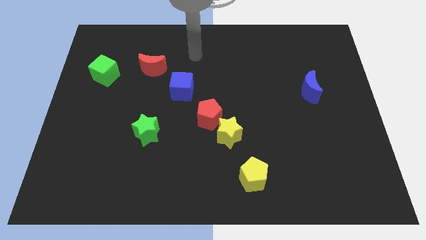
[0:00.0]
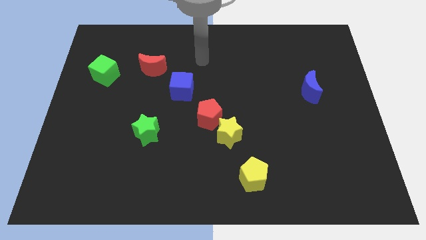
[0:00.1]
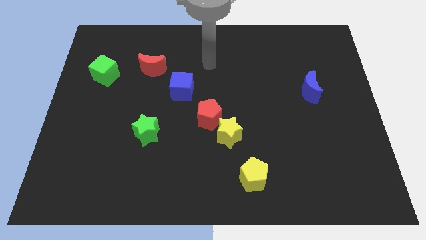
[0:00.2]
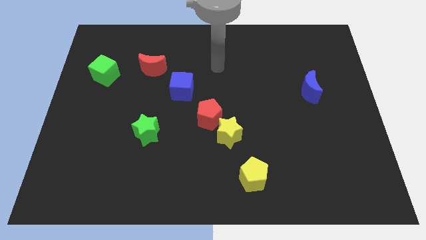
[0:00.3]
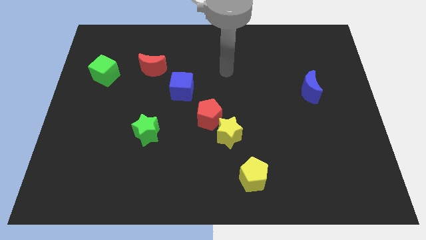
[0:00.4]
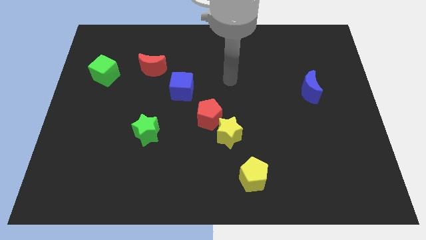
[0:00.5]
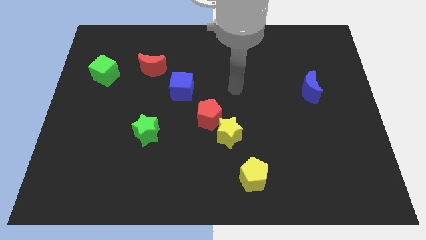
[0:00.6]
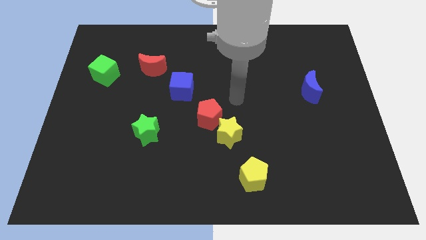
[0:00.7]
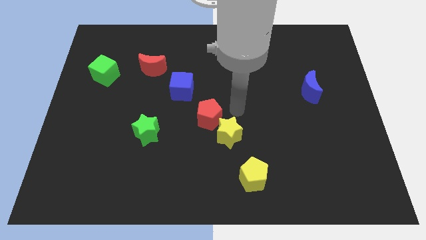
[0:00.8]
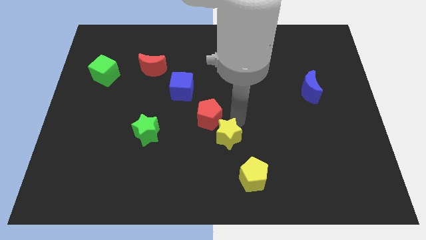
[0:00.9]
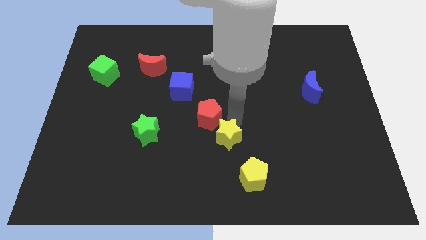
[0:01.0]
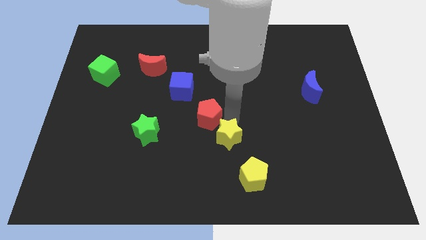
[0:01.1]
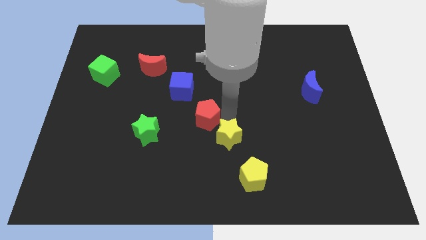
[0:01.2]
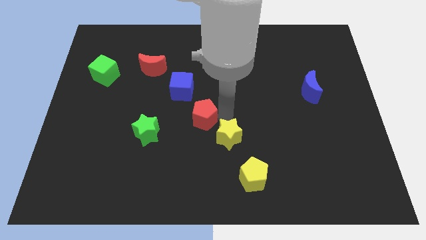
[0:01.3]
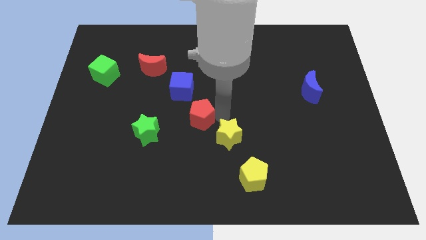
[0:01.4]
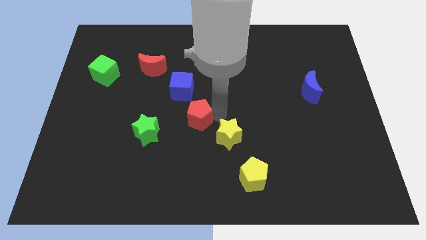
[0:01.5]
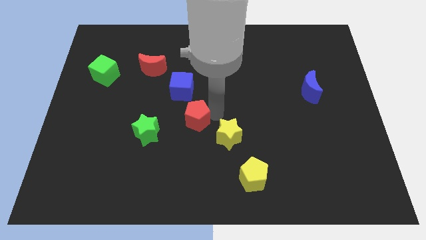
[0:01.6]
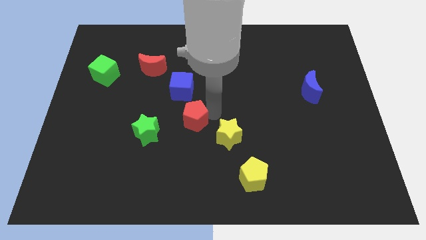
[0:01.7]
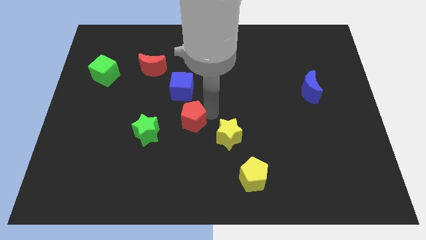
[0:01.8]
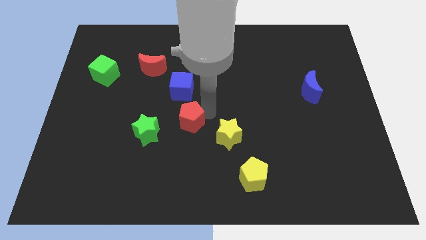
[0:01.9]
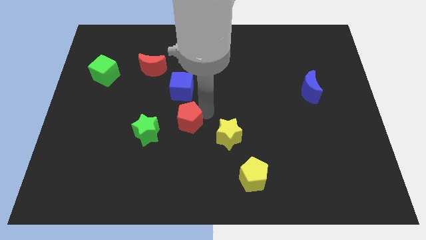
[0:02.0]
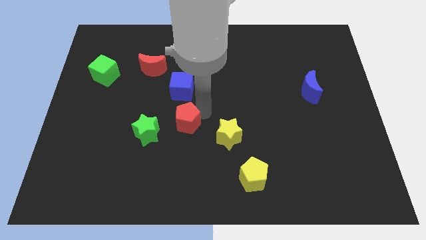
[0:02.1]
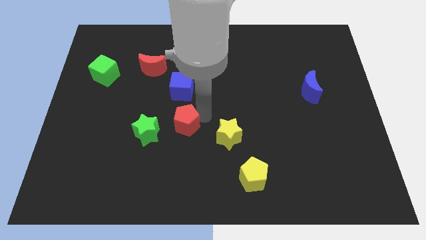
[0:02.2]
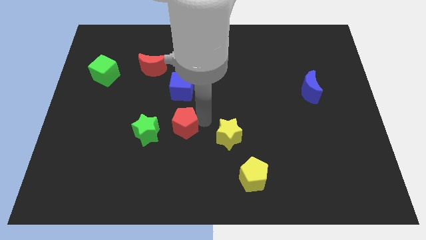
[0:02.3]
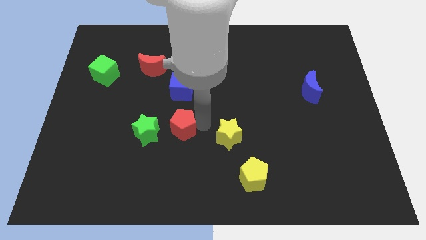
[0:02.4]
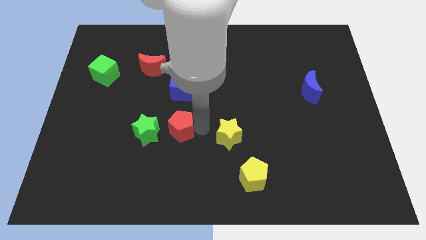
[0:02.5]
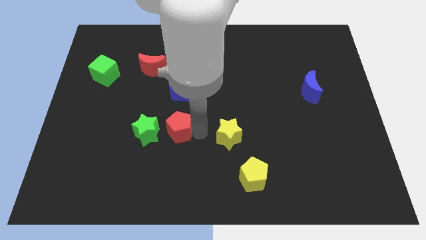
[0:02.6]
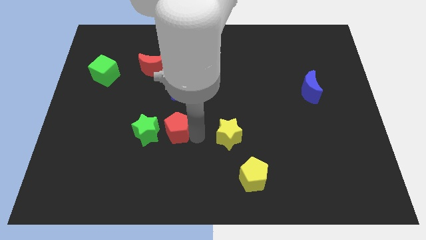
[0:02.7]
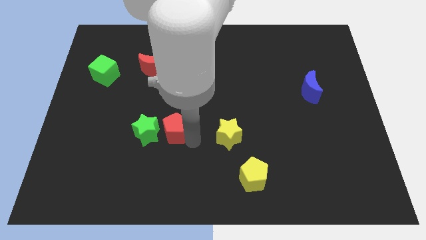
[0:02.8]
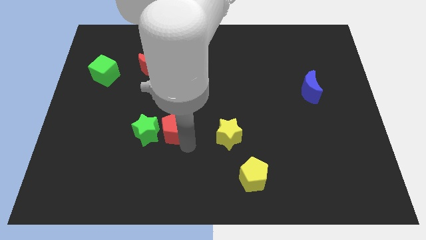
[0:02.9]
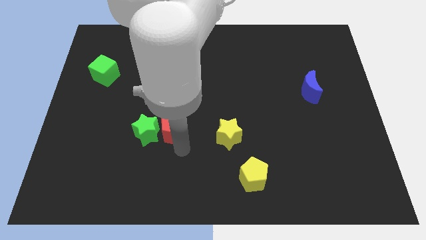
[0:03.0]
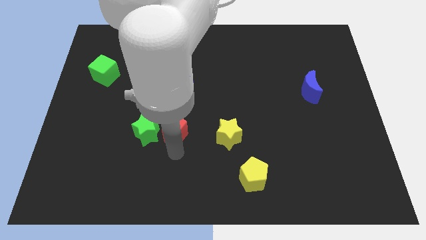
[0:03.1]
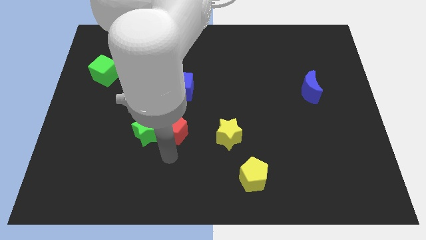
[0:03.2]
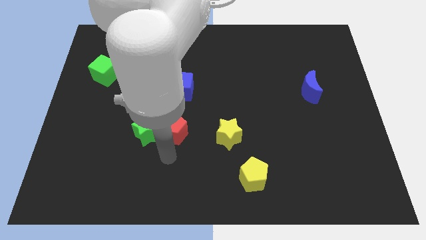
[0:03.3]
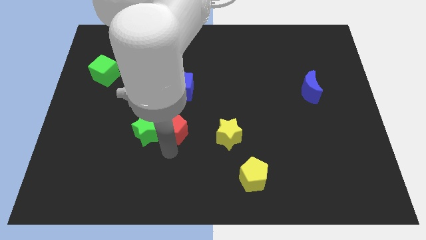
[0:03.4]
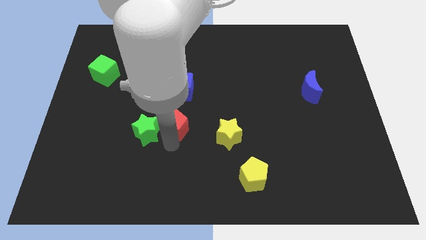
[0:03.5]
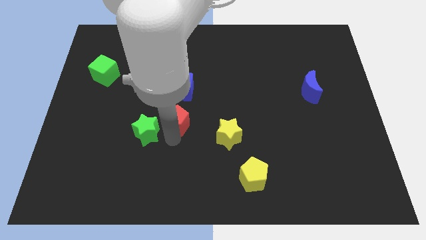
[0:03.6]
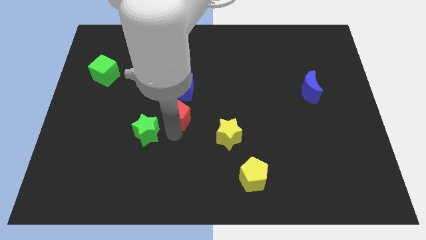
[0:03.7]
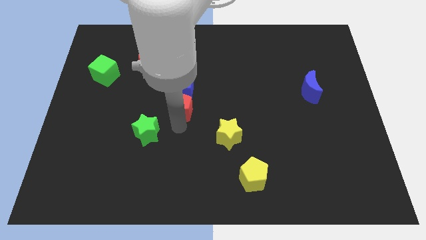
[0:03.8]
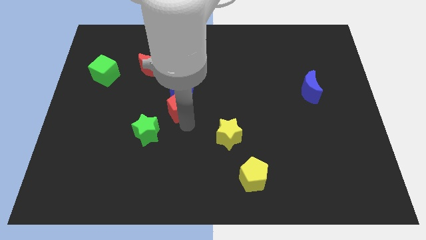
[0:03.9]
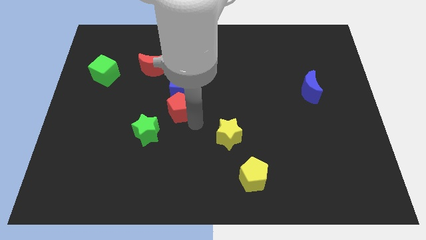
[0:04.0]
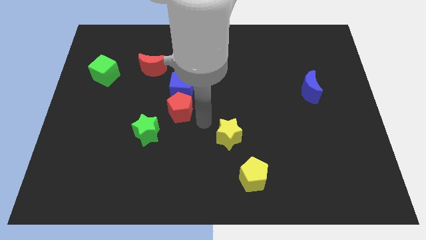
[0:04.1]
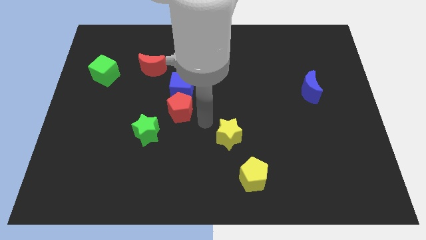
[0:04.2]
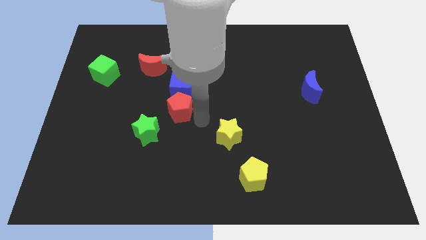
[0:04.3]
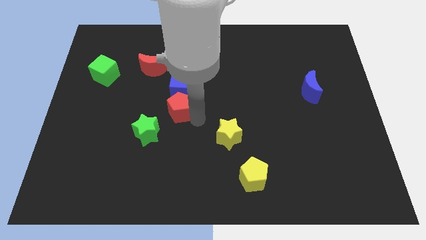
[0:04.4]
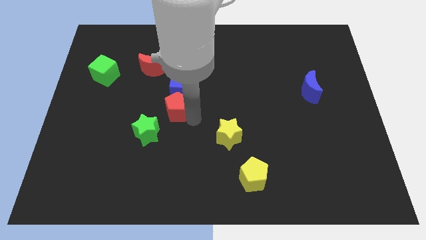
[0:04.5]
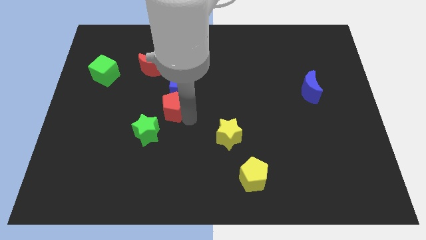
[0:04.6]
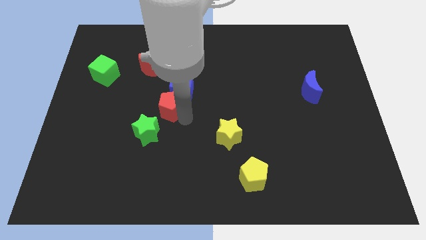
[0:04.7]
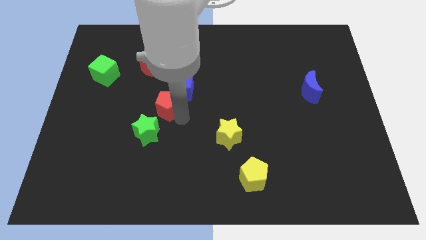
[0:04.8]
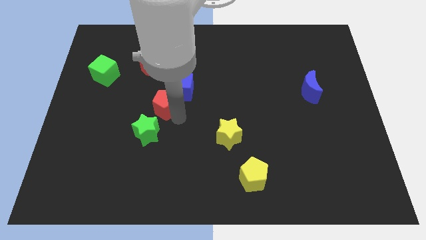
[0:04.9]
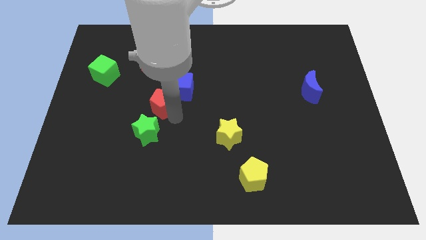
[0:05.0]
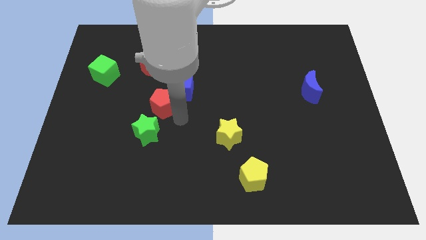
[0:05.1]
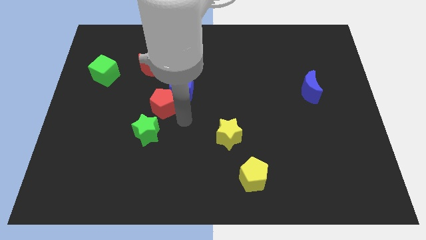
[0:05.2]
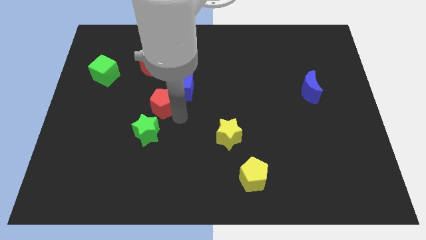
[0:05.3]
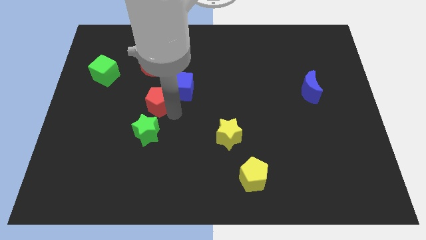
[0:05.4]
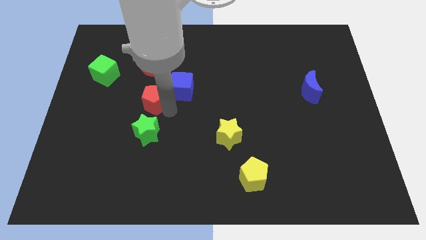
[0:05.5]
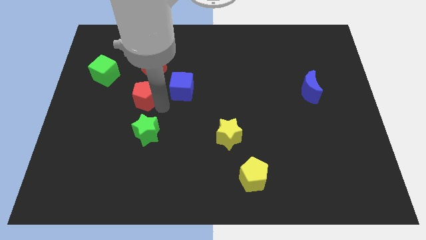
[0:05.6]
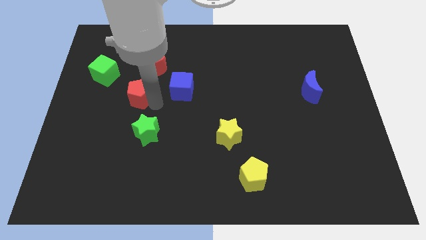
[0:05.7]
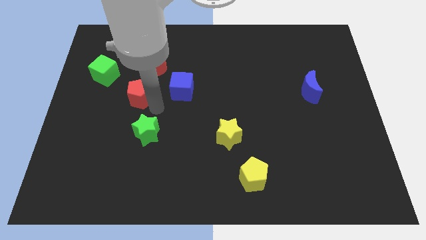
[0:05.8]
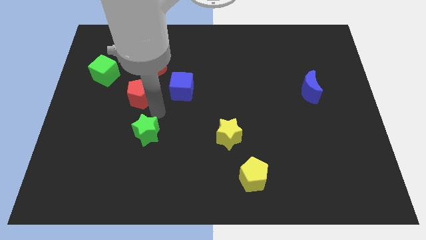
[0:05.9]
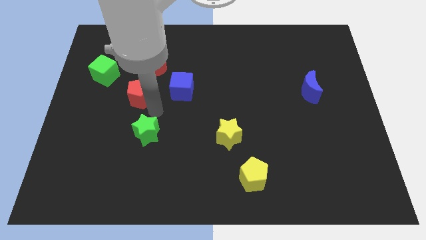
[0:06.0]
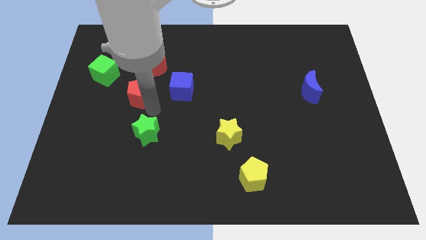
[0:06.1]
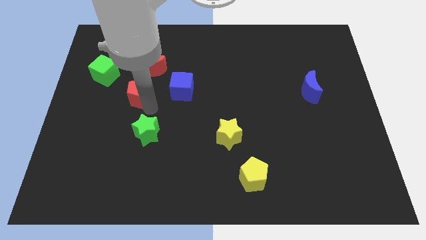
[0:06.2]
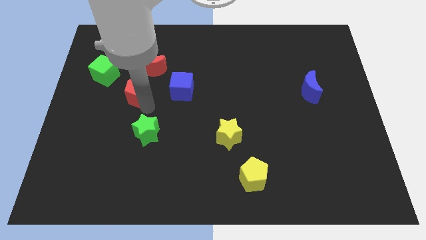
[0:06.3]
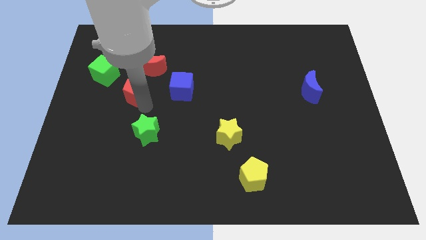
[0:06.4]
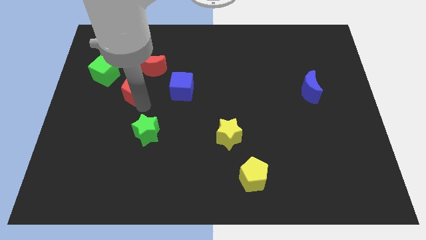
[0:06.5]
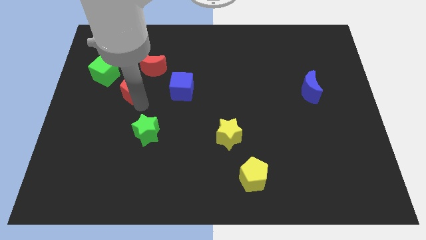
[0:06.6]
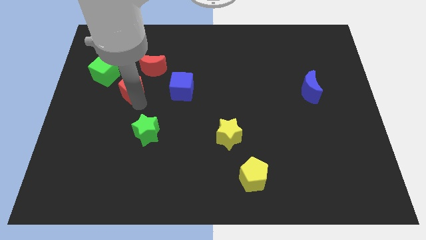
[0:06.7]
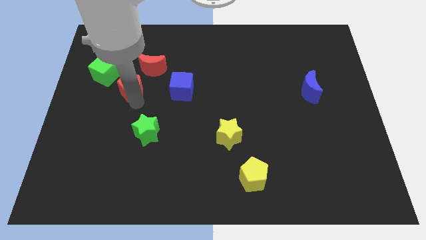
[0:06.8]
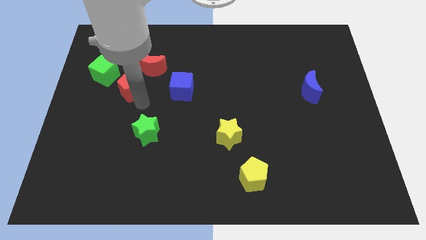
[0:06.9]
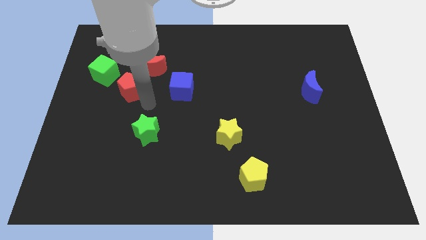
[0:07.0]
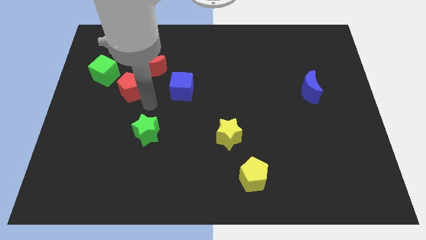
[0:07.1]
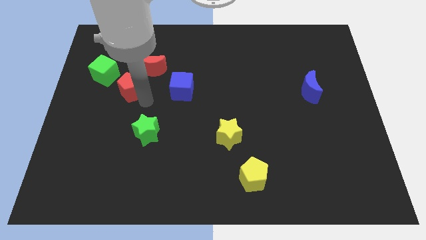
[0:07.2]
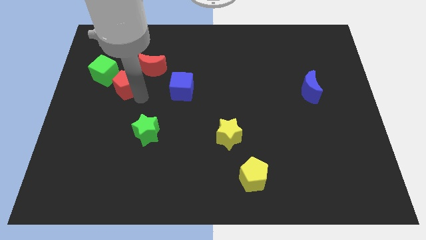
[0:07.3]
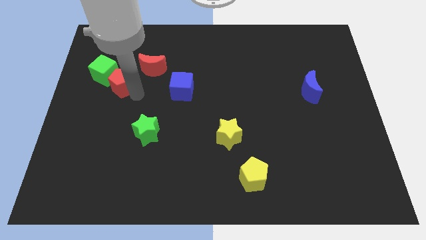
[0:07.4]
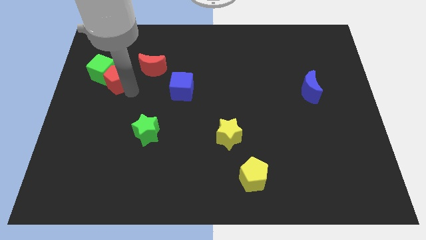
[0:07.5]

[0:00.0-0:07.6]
put the red pentagon close to the green cube

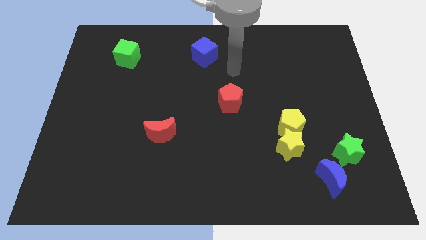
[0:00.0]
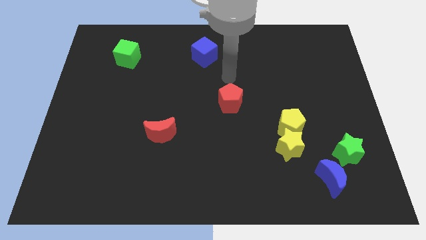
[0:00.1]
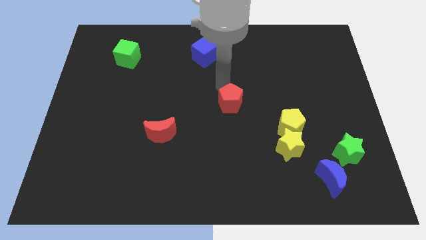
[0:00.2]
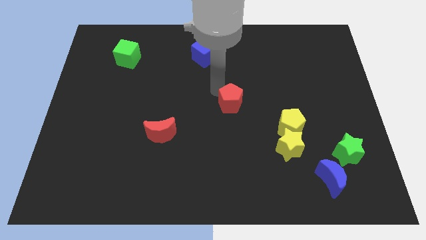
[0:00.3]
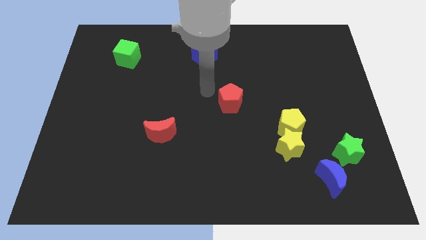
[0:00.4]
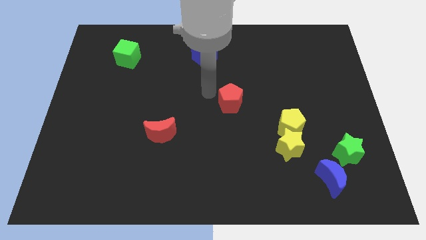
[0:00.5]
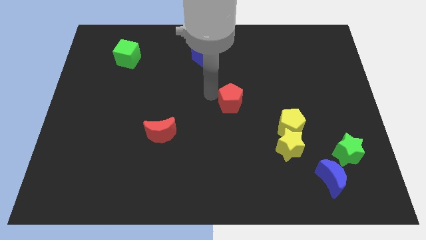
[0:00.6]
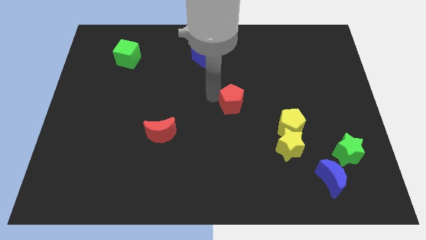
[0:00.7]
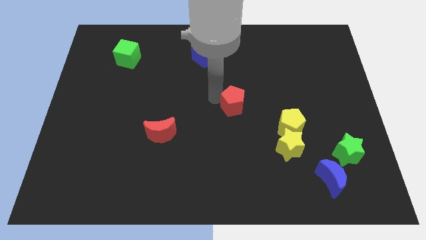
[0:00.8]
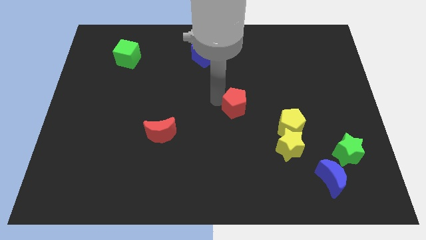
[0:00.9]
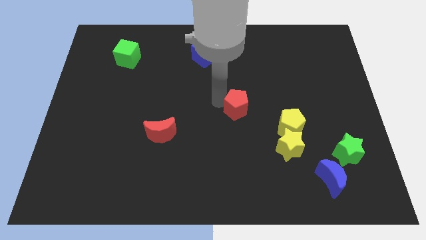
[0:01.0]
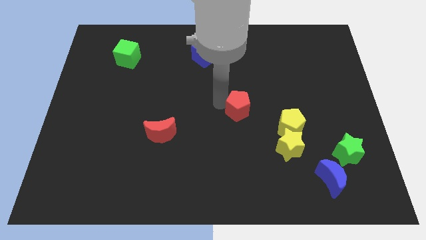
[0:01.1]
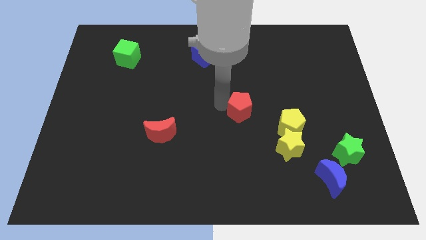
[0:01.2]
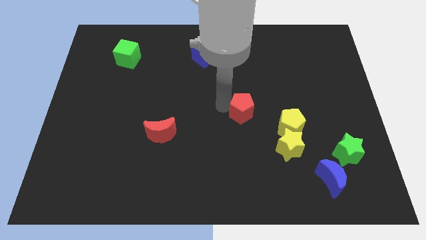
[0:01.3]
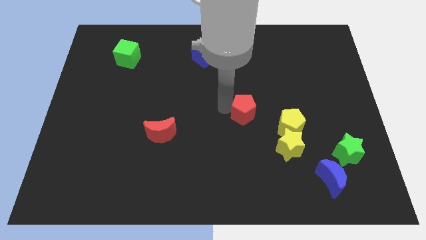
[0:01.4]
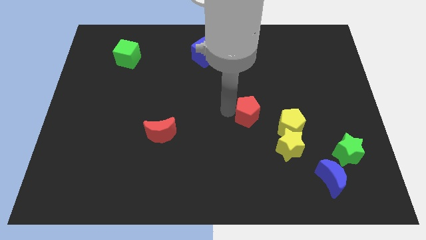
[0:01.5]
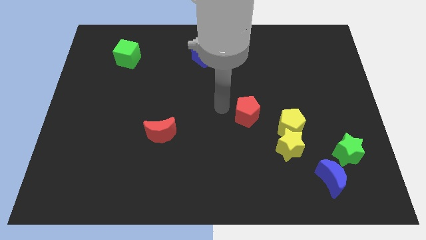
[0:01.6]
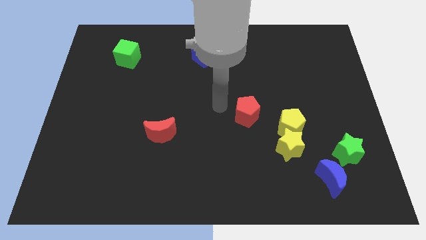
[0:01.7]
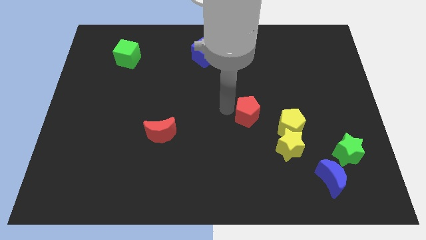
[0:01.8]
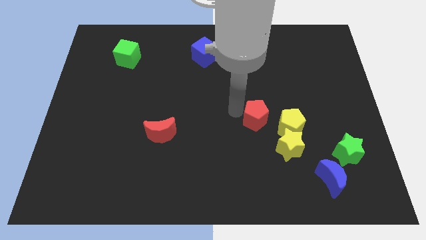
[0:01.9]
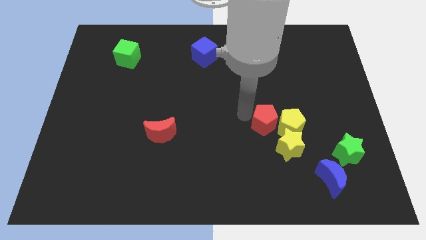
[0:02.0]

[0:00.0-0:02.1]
slide the red pentagon close to the yellow pentagon
